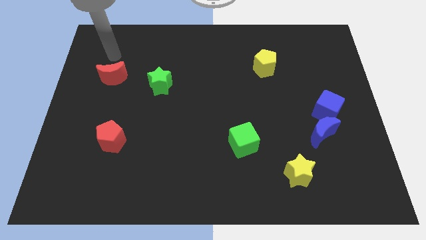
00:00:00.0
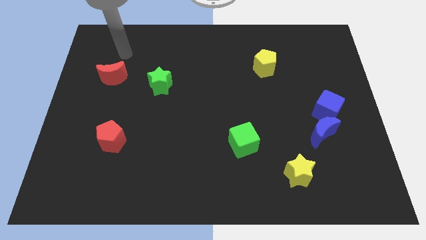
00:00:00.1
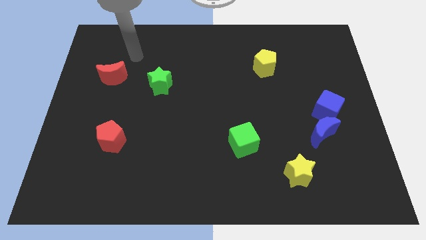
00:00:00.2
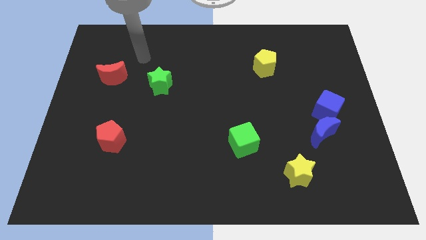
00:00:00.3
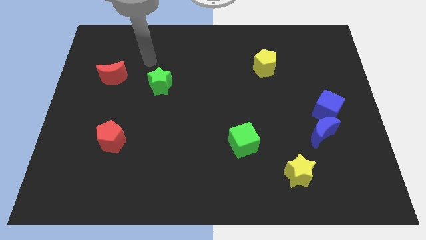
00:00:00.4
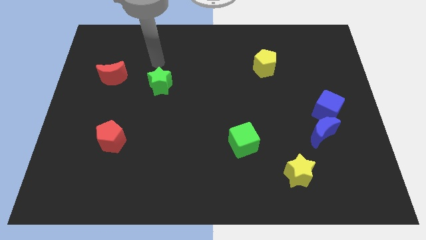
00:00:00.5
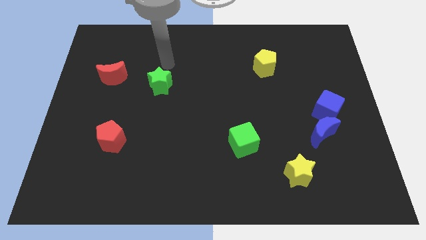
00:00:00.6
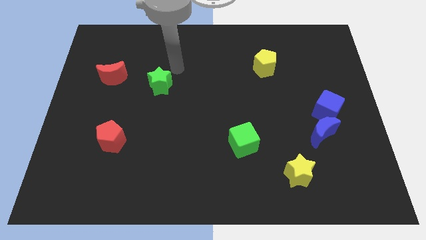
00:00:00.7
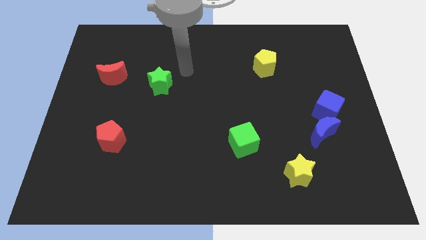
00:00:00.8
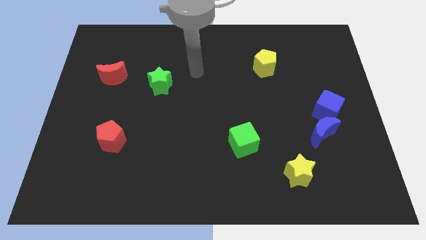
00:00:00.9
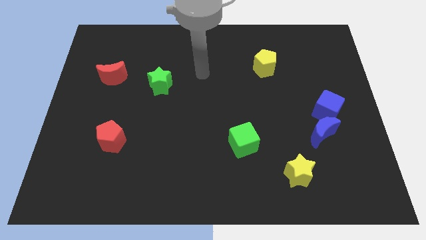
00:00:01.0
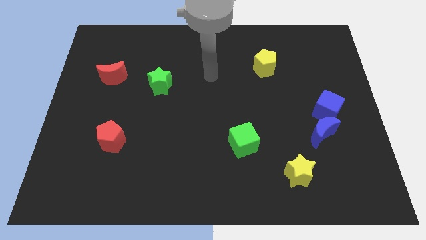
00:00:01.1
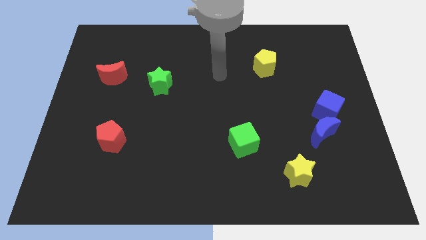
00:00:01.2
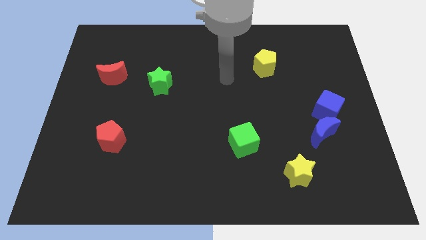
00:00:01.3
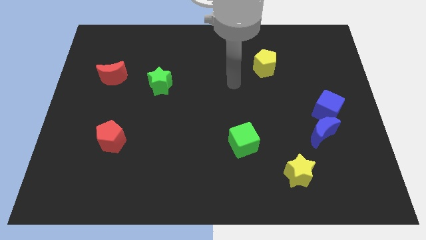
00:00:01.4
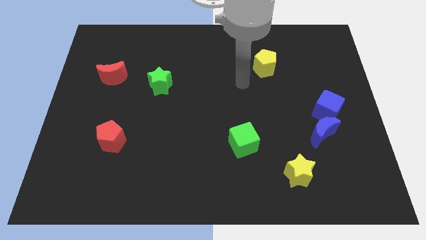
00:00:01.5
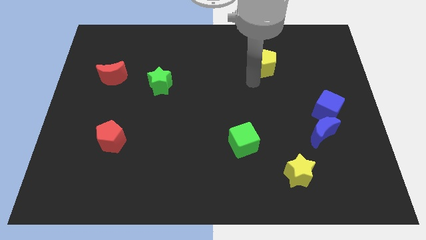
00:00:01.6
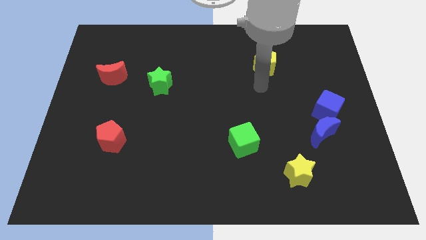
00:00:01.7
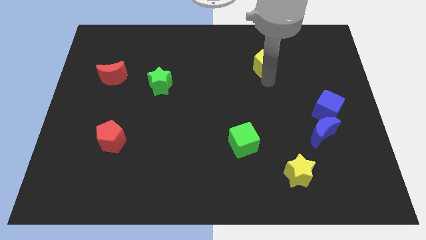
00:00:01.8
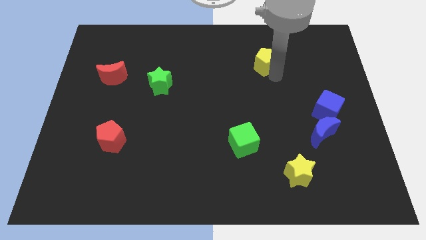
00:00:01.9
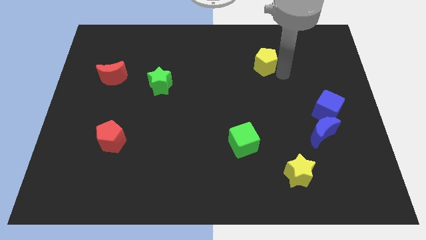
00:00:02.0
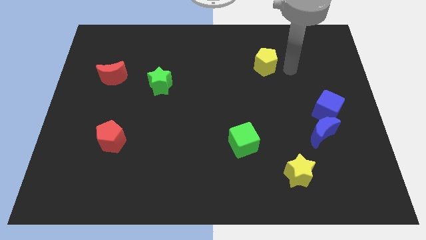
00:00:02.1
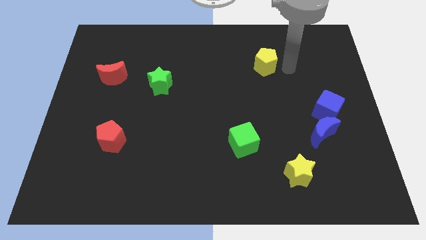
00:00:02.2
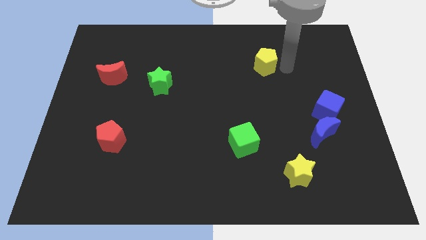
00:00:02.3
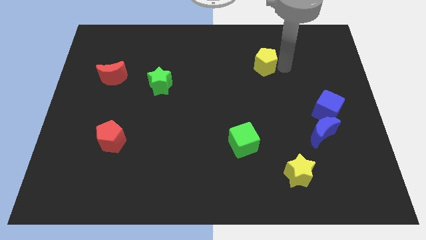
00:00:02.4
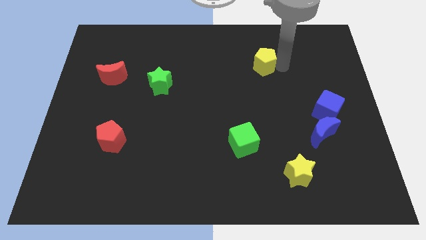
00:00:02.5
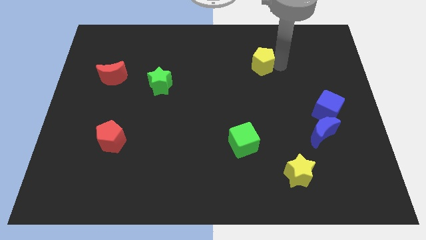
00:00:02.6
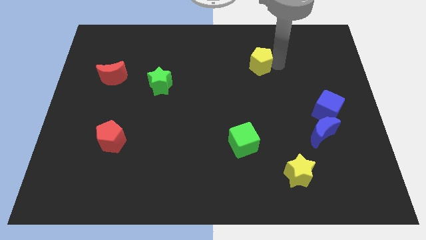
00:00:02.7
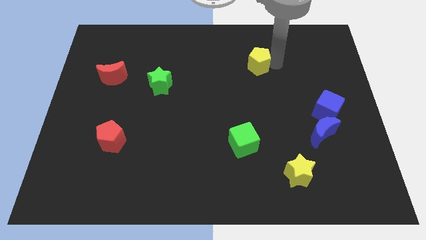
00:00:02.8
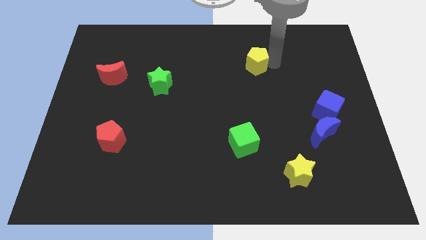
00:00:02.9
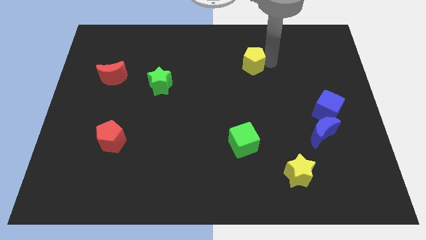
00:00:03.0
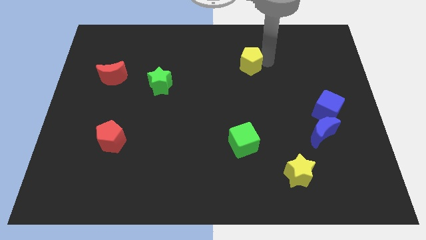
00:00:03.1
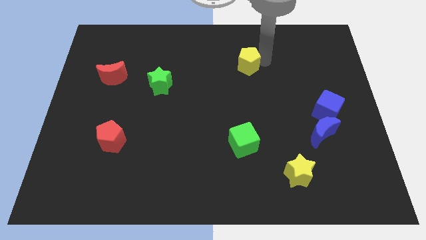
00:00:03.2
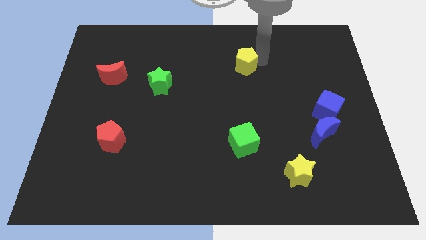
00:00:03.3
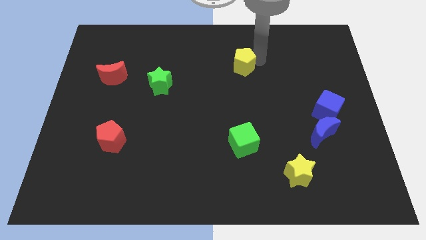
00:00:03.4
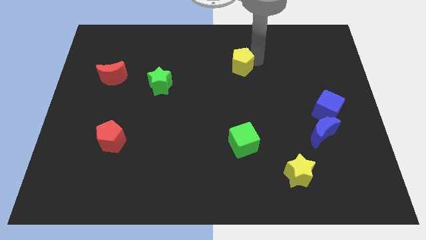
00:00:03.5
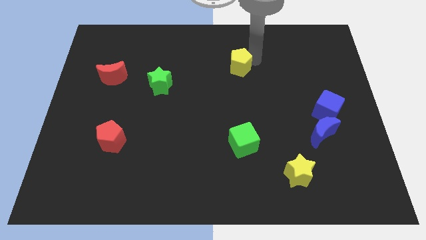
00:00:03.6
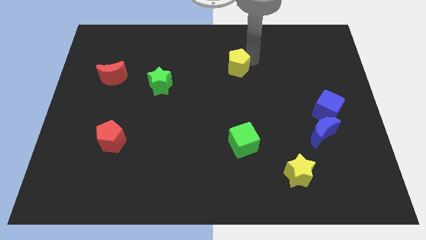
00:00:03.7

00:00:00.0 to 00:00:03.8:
move the yellow pentagon a bit left

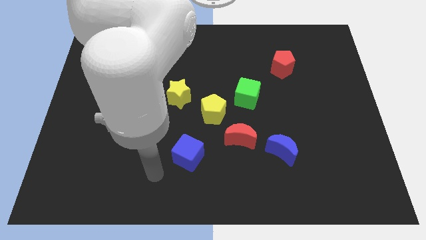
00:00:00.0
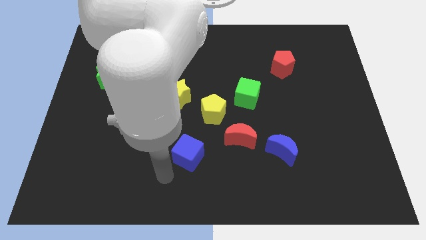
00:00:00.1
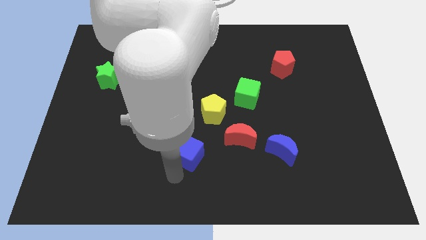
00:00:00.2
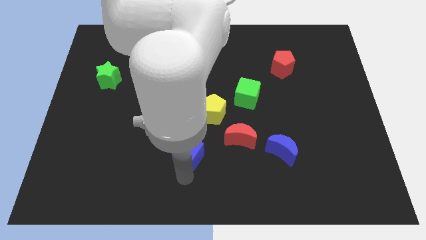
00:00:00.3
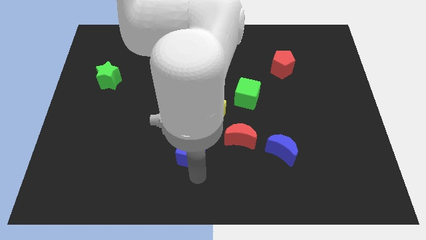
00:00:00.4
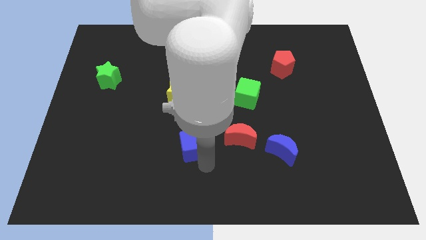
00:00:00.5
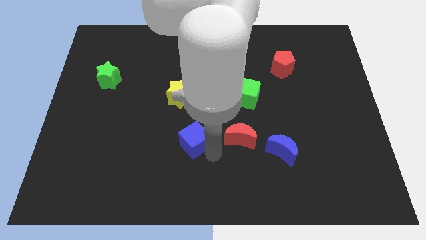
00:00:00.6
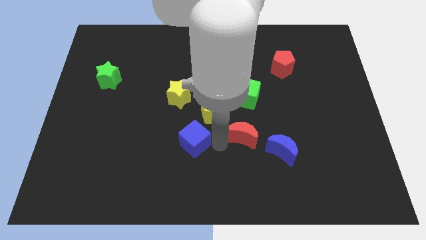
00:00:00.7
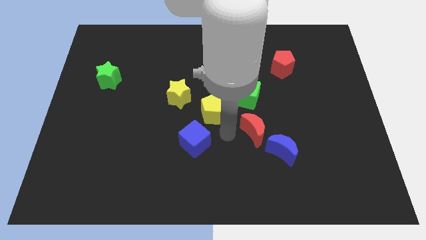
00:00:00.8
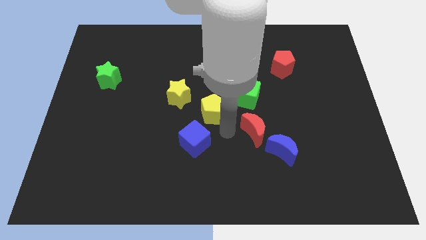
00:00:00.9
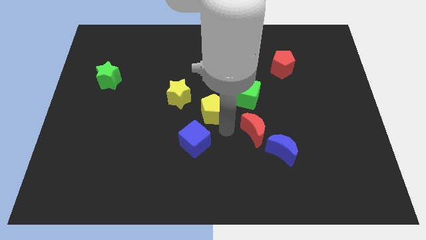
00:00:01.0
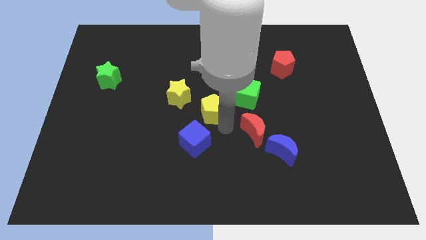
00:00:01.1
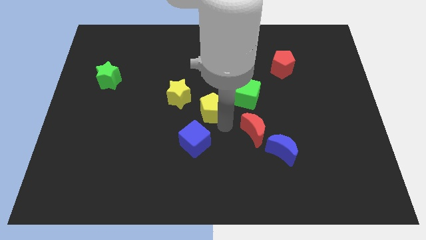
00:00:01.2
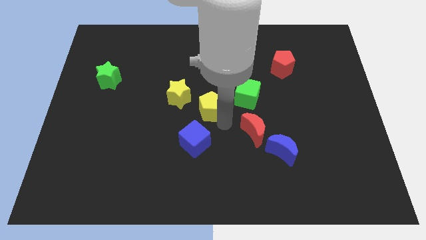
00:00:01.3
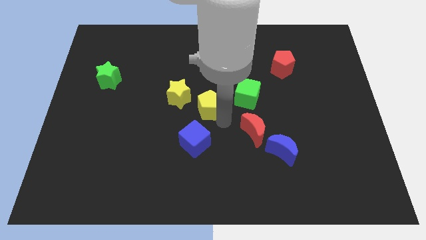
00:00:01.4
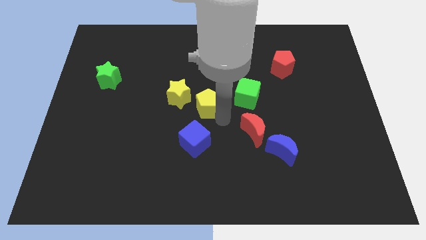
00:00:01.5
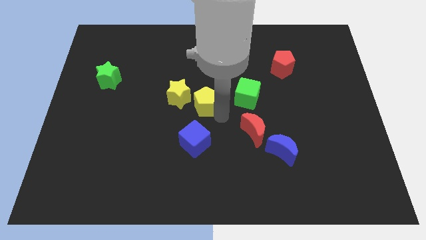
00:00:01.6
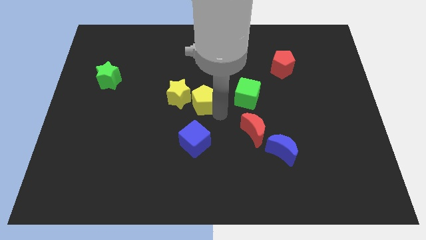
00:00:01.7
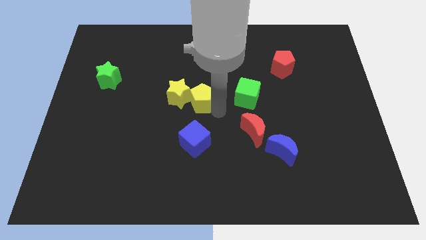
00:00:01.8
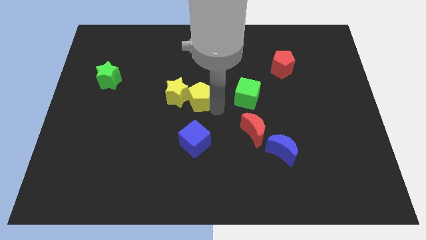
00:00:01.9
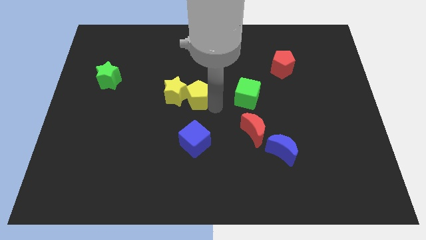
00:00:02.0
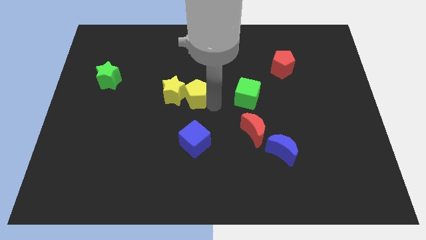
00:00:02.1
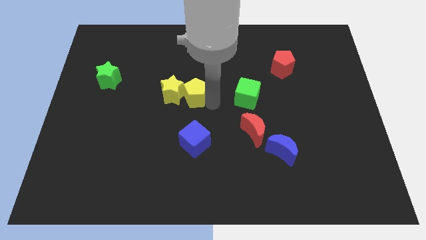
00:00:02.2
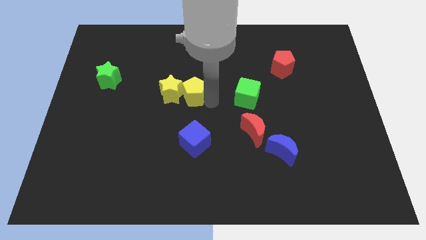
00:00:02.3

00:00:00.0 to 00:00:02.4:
slightly slide the yellow pentagon upwards and to the left

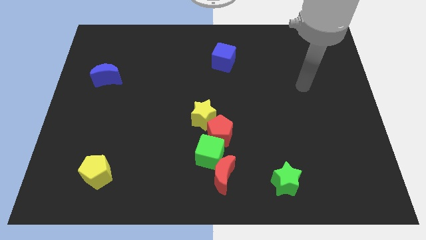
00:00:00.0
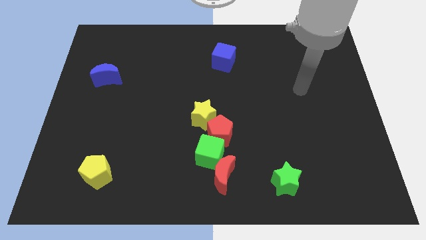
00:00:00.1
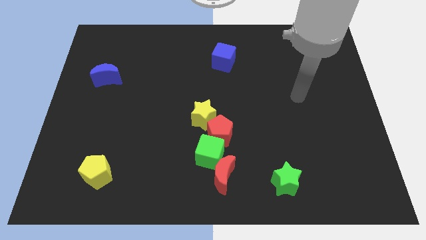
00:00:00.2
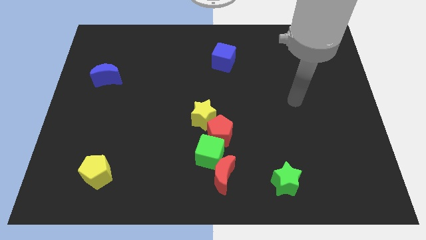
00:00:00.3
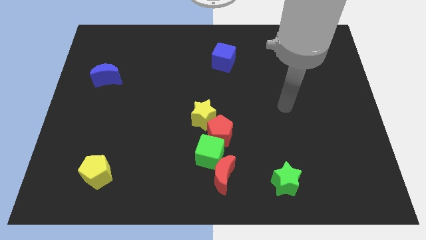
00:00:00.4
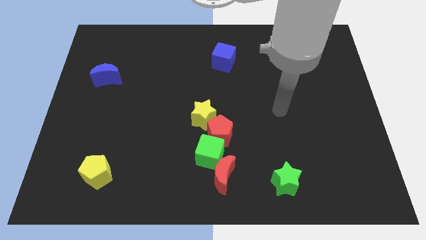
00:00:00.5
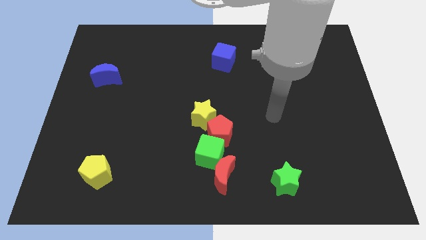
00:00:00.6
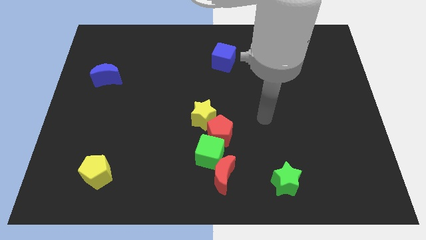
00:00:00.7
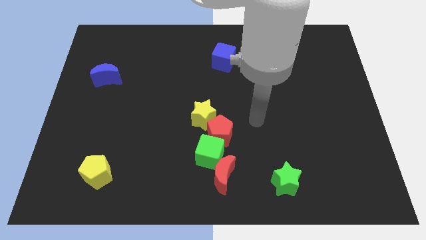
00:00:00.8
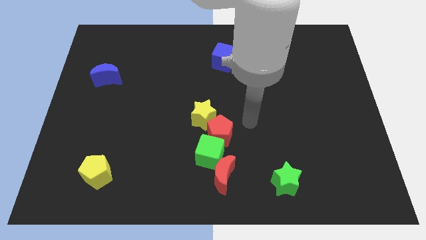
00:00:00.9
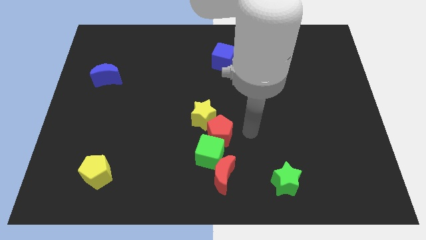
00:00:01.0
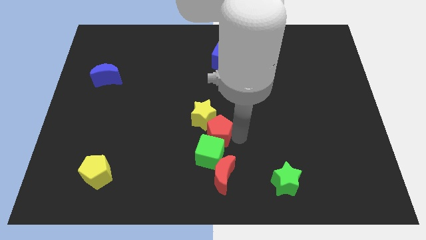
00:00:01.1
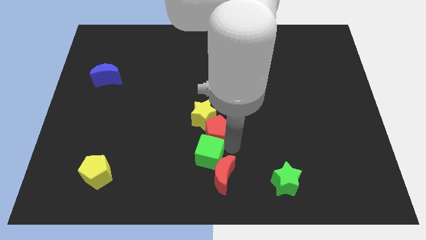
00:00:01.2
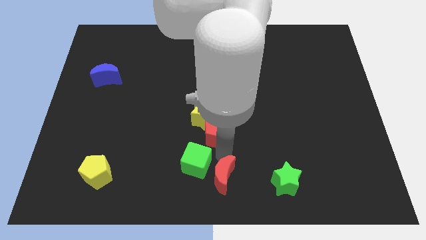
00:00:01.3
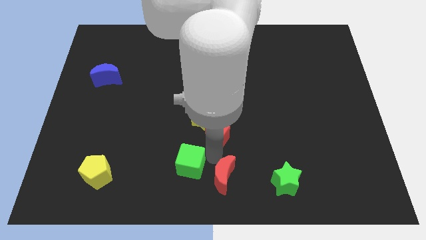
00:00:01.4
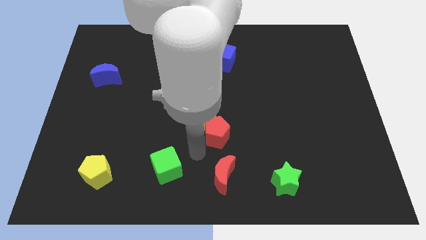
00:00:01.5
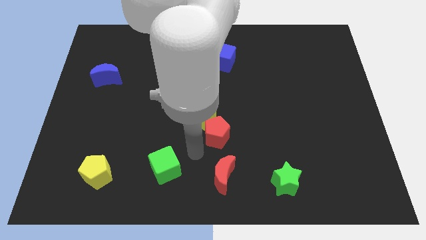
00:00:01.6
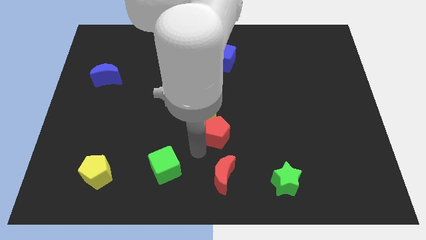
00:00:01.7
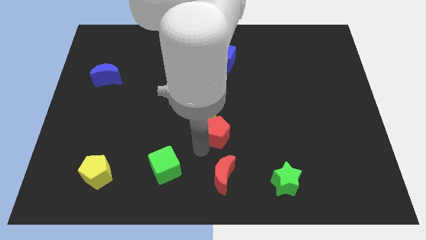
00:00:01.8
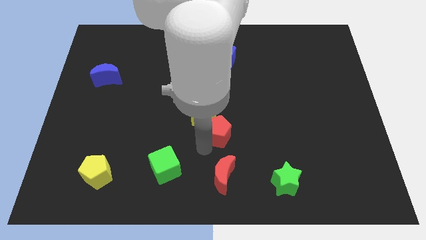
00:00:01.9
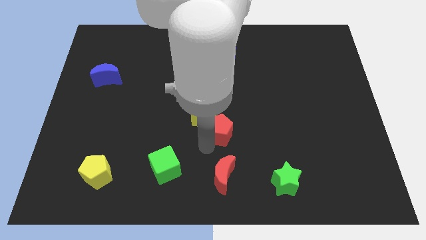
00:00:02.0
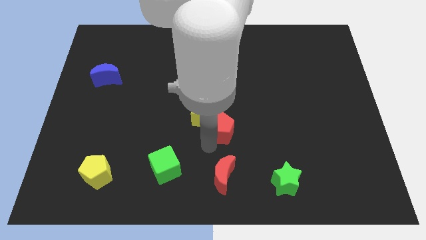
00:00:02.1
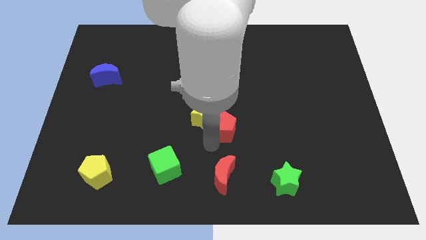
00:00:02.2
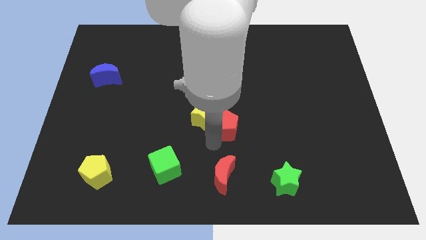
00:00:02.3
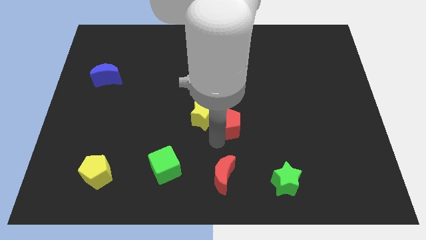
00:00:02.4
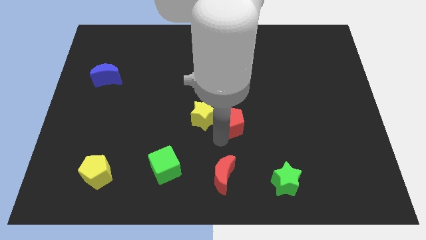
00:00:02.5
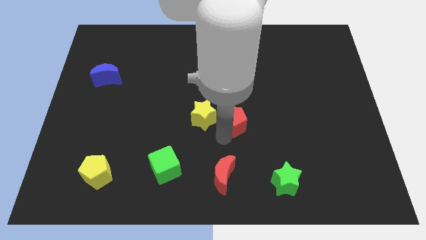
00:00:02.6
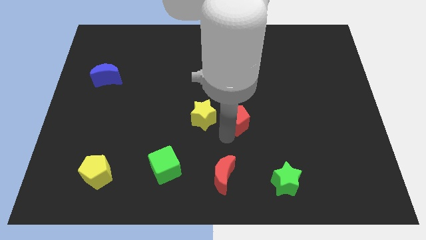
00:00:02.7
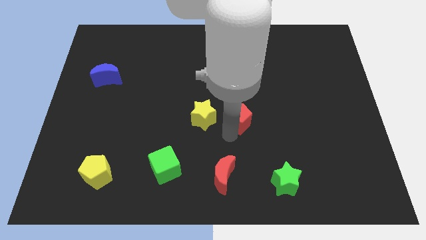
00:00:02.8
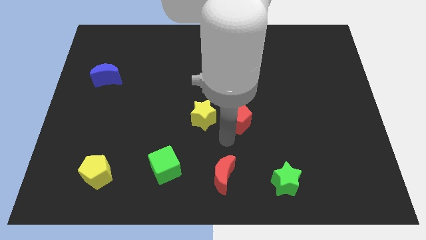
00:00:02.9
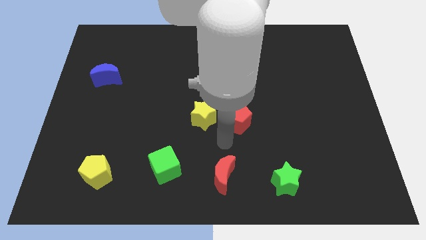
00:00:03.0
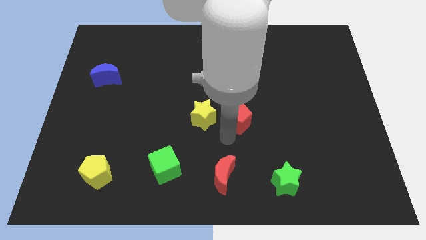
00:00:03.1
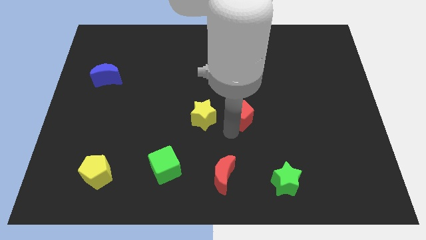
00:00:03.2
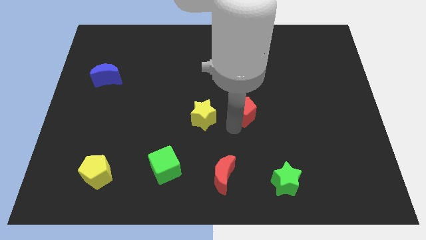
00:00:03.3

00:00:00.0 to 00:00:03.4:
slightly slide the red pentagon upwards and to the right diagonally
